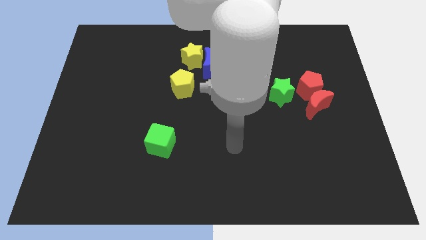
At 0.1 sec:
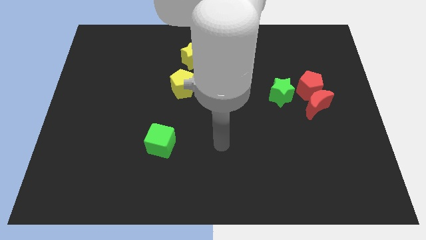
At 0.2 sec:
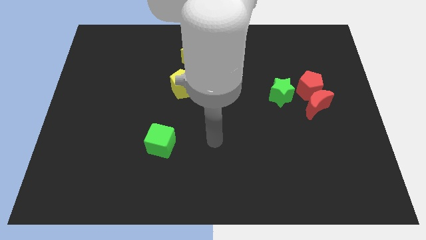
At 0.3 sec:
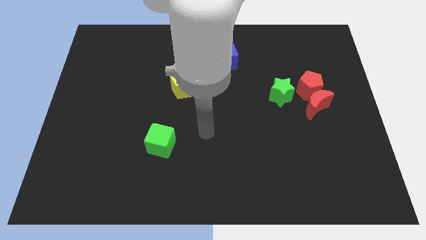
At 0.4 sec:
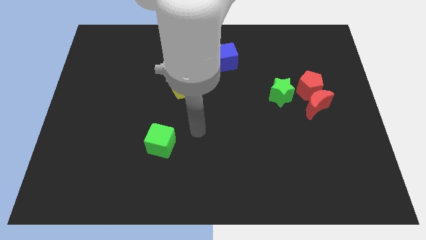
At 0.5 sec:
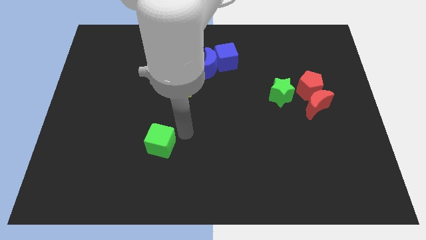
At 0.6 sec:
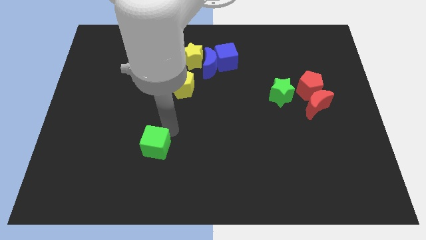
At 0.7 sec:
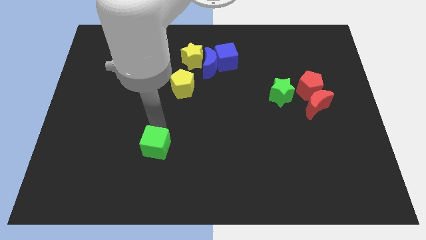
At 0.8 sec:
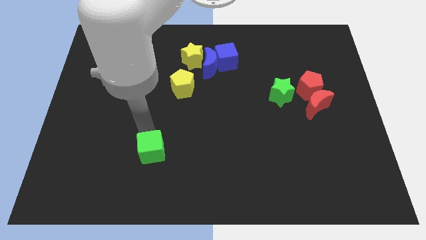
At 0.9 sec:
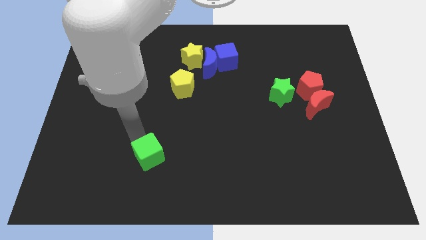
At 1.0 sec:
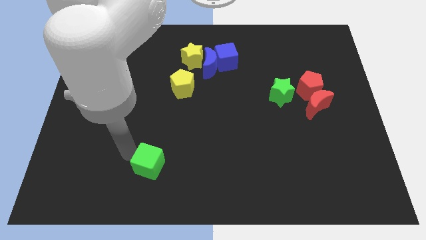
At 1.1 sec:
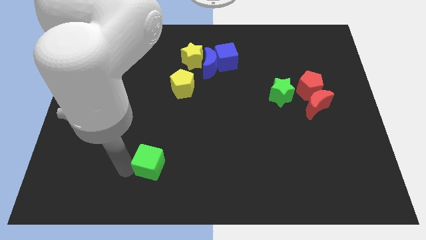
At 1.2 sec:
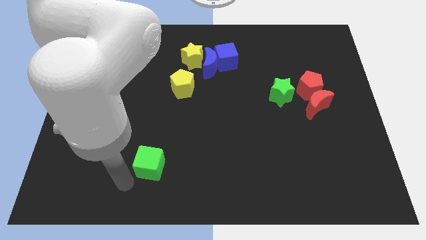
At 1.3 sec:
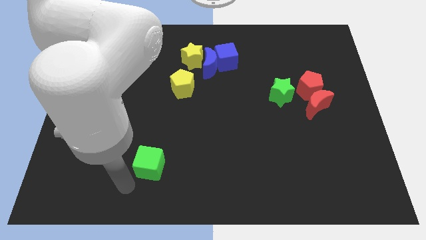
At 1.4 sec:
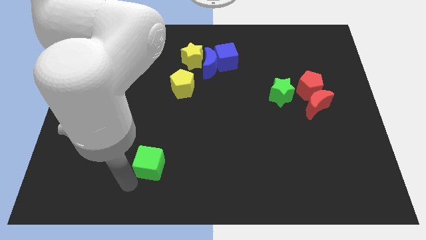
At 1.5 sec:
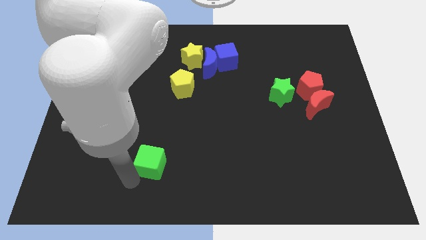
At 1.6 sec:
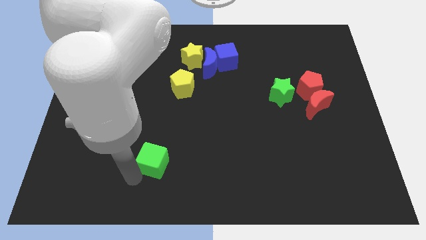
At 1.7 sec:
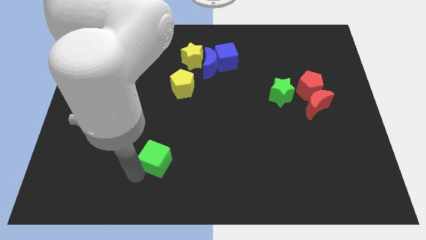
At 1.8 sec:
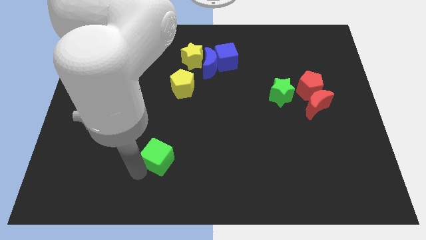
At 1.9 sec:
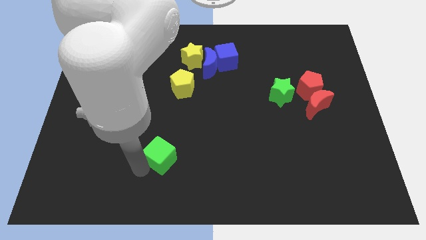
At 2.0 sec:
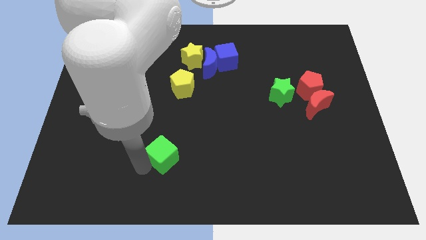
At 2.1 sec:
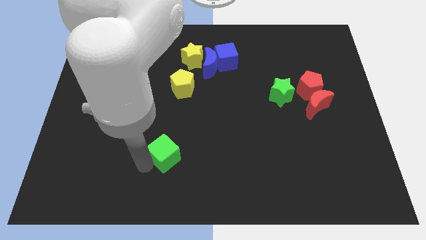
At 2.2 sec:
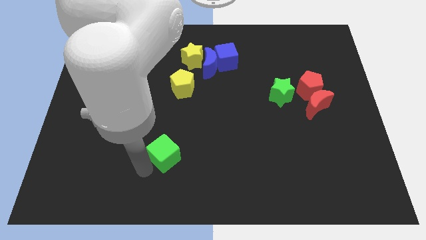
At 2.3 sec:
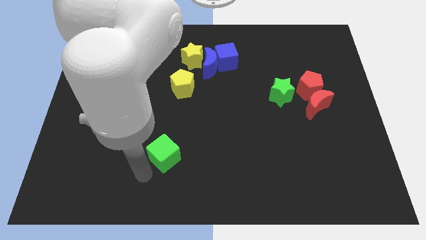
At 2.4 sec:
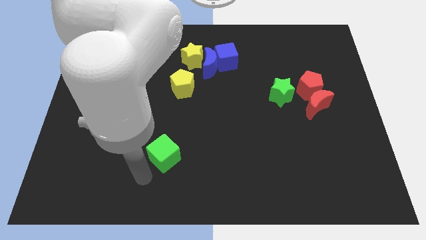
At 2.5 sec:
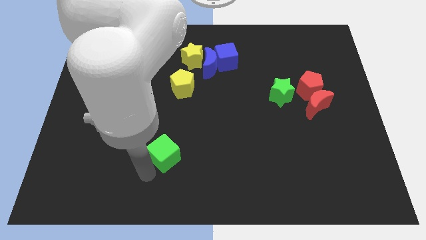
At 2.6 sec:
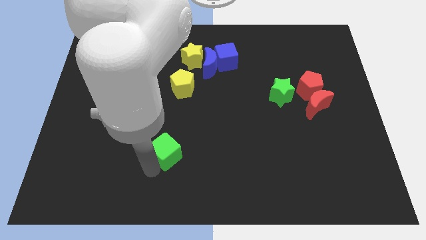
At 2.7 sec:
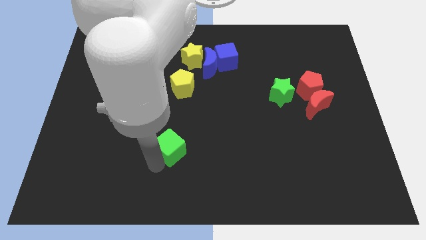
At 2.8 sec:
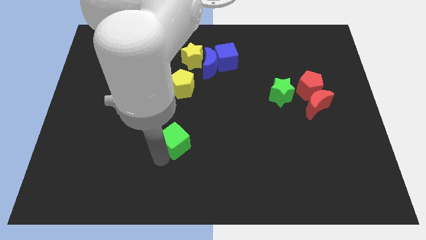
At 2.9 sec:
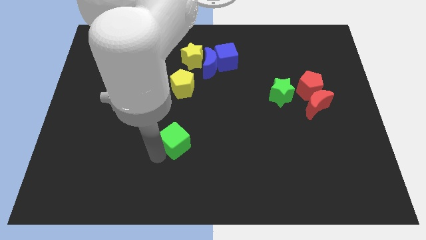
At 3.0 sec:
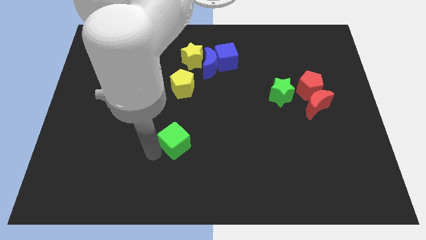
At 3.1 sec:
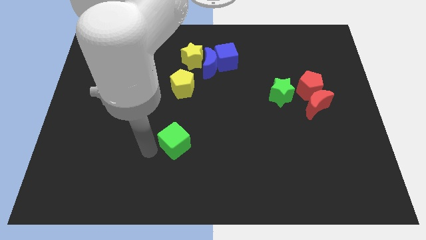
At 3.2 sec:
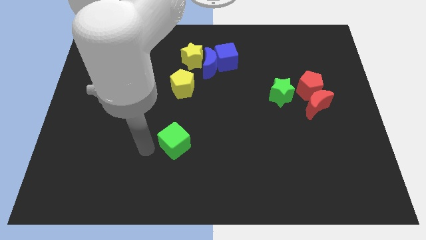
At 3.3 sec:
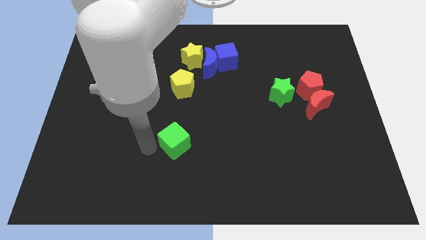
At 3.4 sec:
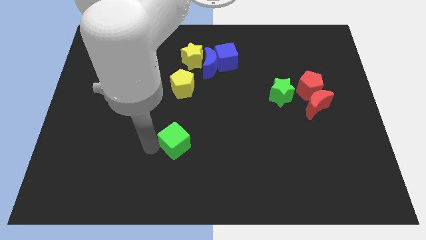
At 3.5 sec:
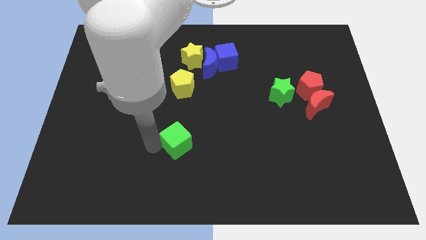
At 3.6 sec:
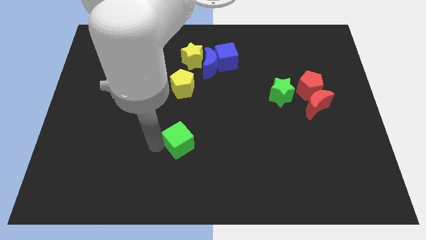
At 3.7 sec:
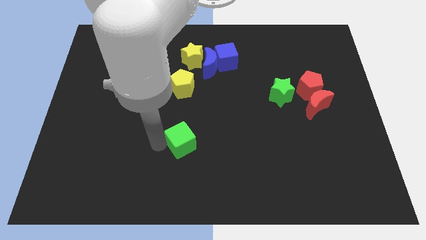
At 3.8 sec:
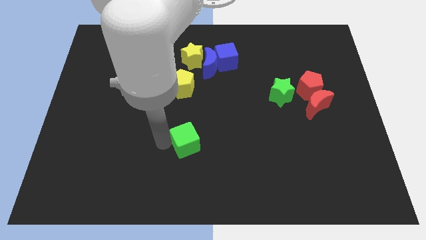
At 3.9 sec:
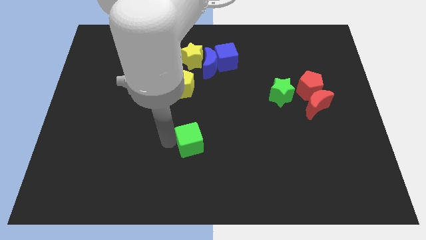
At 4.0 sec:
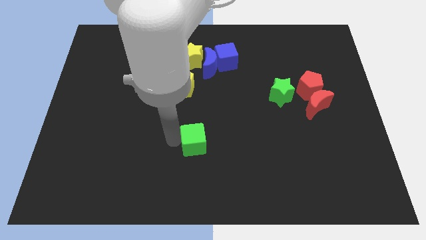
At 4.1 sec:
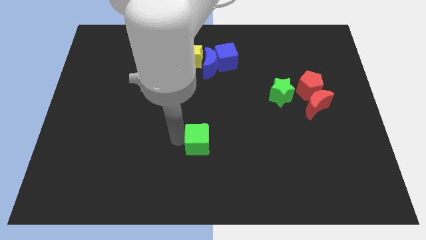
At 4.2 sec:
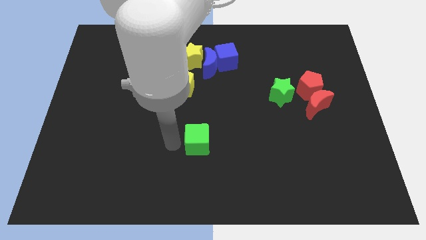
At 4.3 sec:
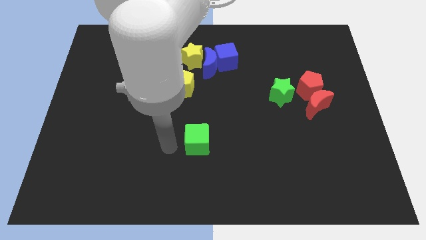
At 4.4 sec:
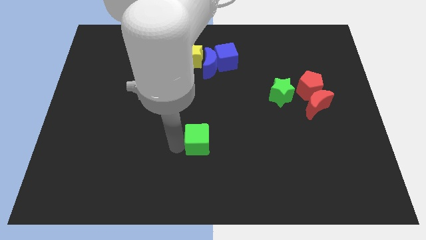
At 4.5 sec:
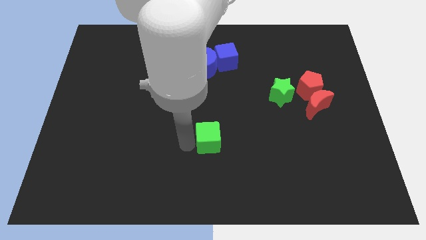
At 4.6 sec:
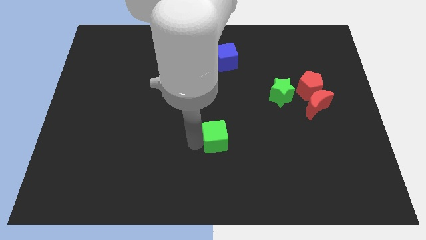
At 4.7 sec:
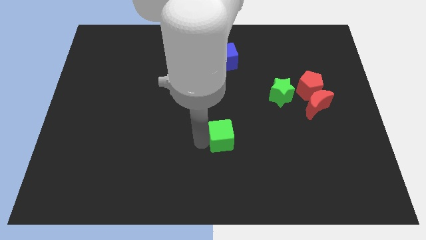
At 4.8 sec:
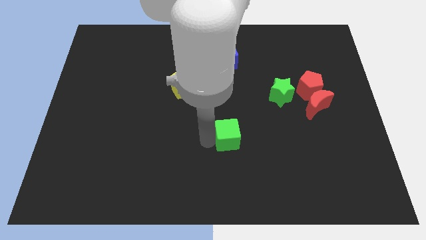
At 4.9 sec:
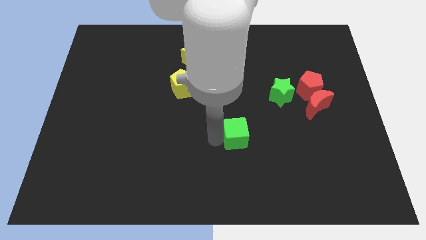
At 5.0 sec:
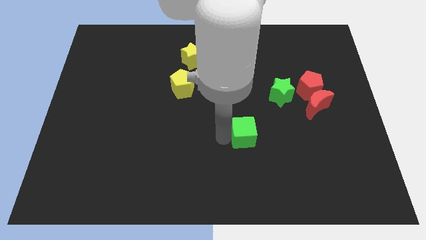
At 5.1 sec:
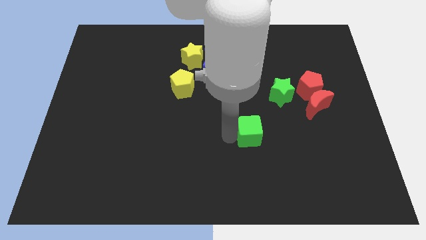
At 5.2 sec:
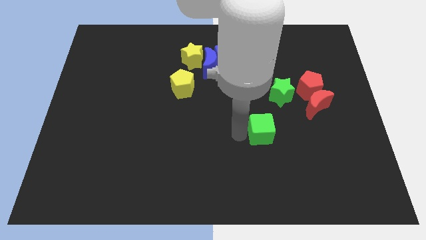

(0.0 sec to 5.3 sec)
push the green cube right

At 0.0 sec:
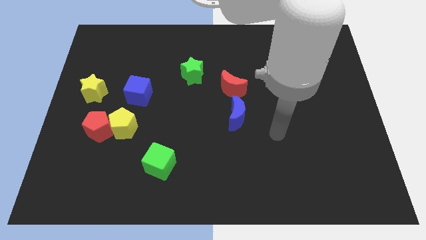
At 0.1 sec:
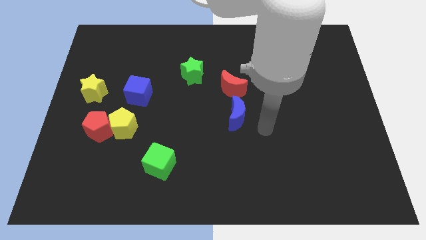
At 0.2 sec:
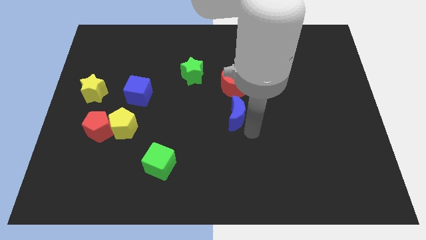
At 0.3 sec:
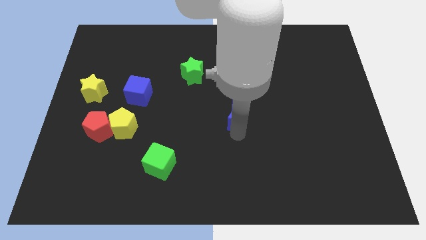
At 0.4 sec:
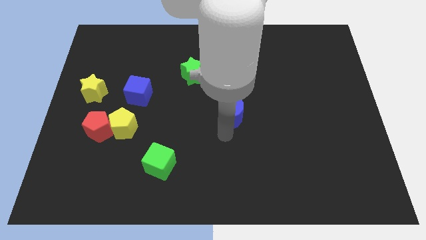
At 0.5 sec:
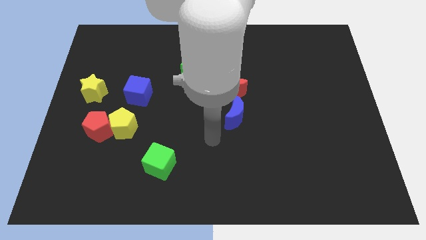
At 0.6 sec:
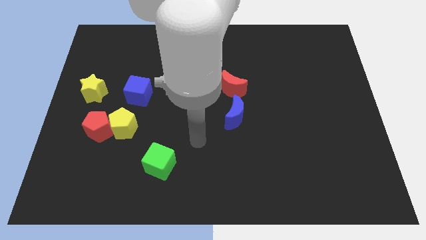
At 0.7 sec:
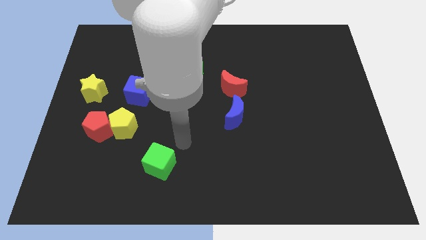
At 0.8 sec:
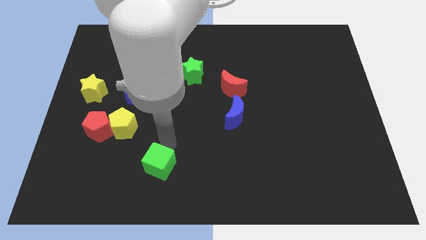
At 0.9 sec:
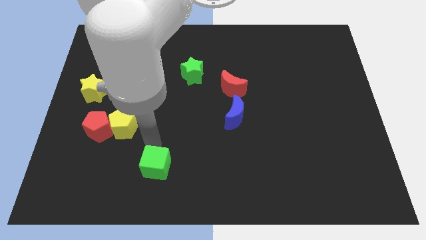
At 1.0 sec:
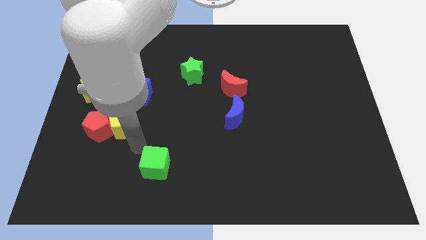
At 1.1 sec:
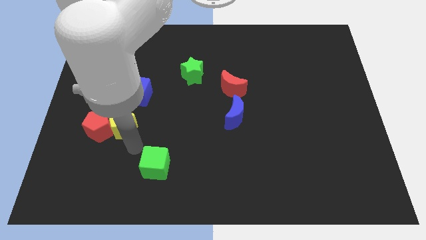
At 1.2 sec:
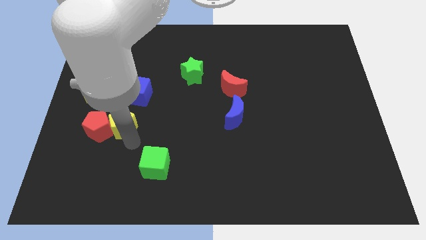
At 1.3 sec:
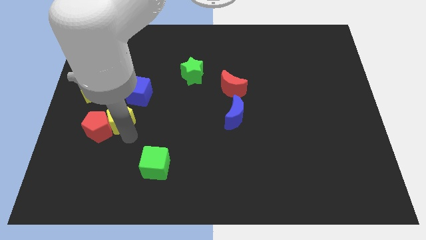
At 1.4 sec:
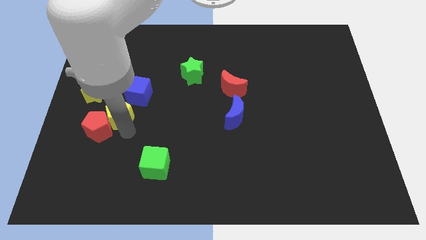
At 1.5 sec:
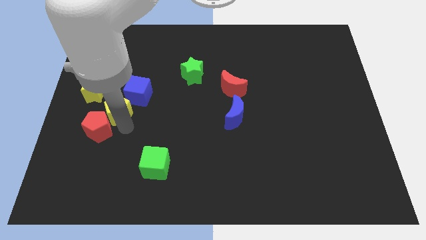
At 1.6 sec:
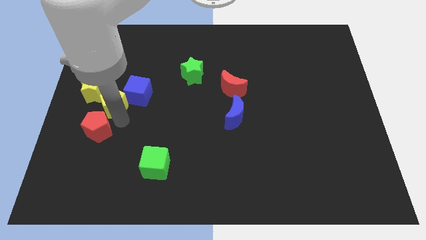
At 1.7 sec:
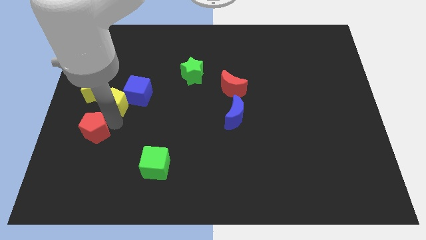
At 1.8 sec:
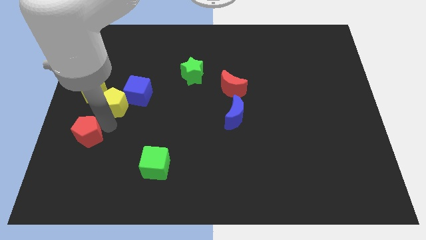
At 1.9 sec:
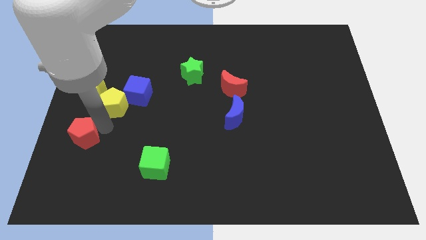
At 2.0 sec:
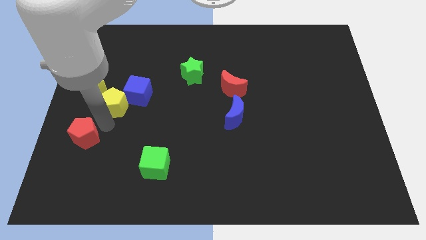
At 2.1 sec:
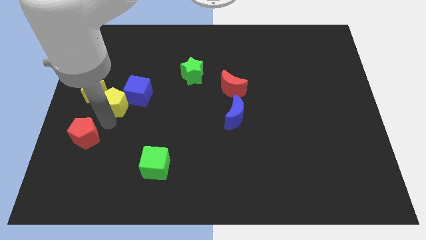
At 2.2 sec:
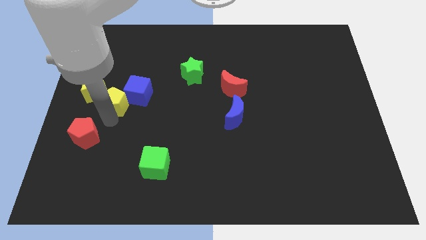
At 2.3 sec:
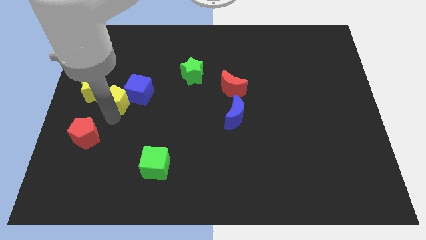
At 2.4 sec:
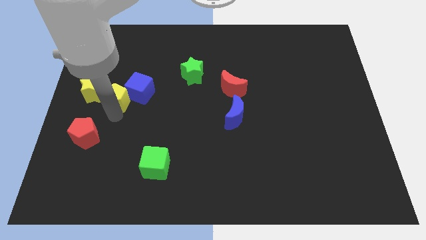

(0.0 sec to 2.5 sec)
slightly slide the yellow pentagon upwards
